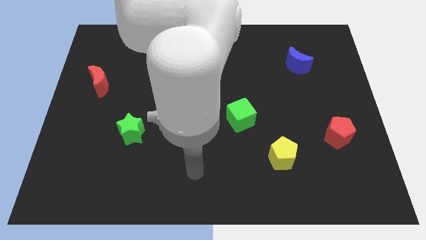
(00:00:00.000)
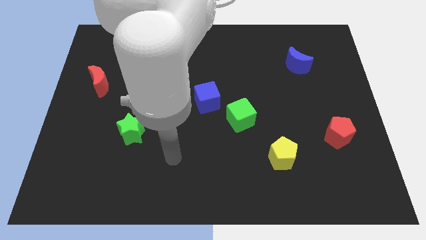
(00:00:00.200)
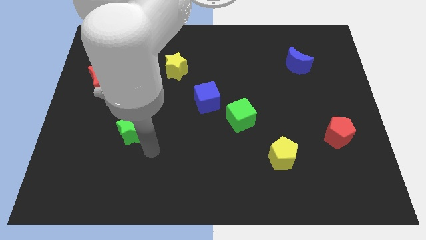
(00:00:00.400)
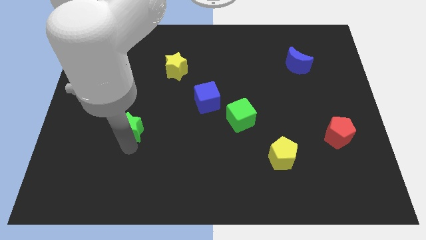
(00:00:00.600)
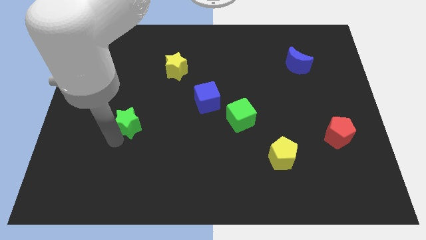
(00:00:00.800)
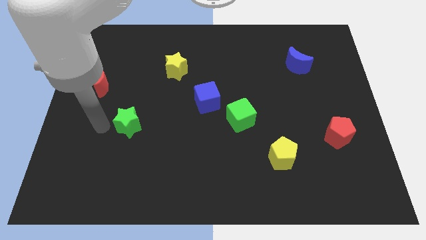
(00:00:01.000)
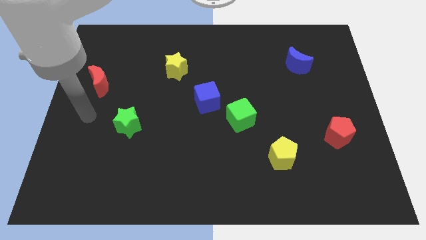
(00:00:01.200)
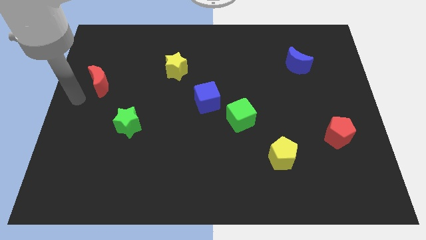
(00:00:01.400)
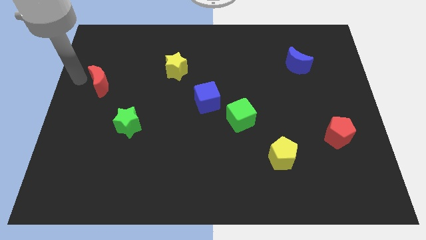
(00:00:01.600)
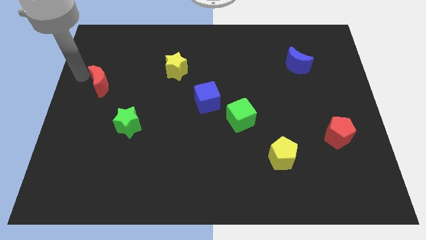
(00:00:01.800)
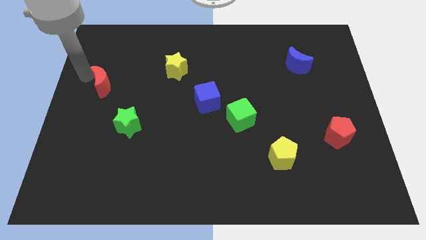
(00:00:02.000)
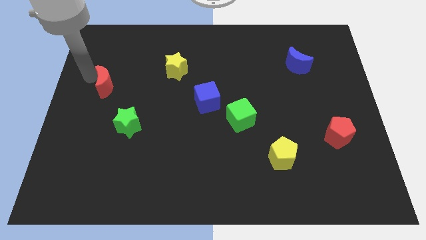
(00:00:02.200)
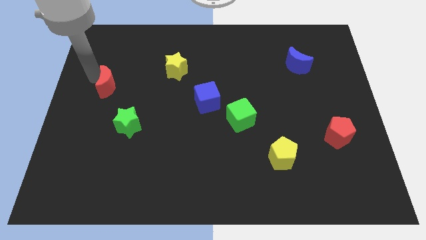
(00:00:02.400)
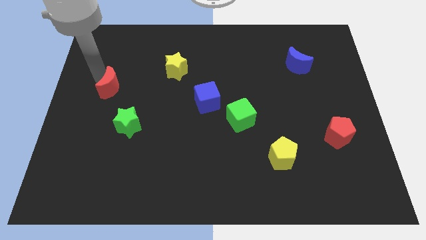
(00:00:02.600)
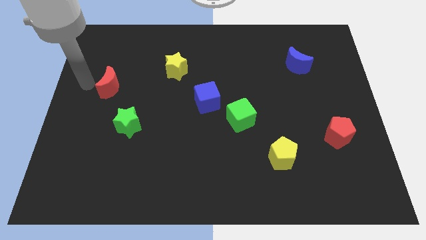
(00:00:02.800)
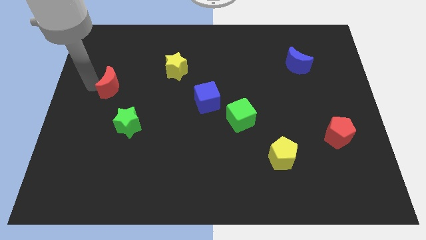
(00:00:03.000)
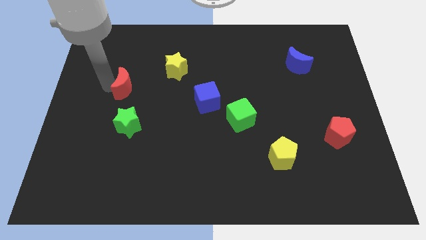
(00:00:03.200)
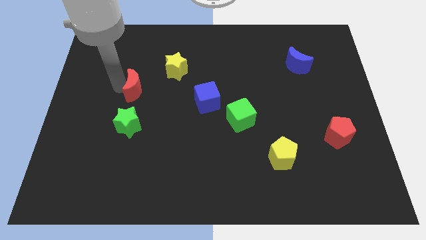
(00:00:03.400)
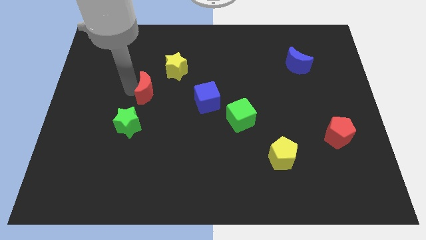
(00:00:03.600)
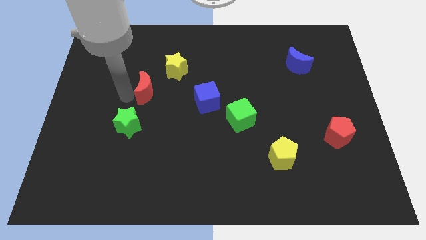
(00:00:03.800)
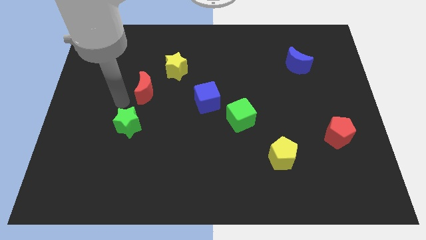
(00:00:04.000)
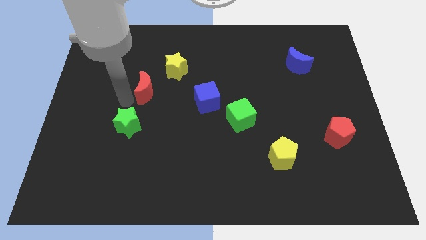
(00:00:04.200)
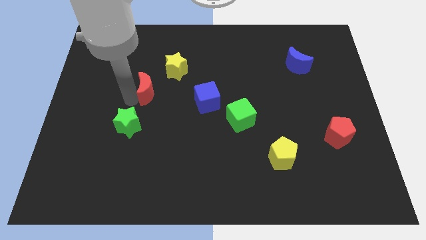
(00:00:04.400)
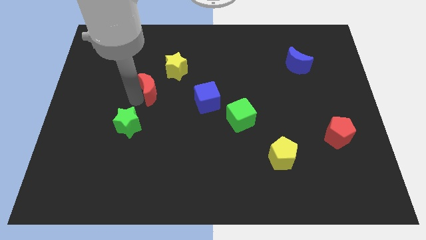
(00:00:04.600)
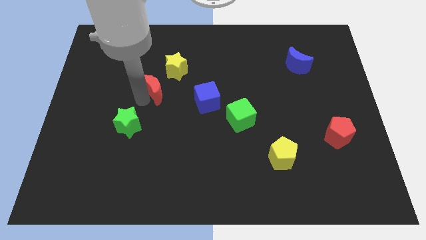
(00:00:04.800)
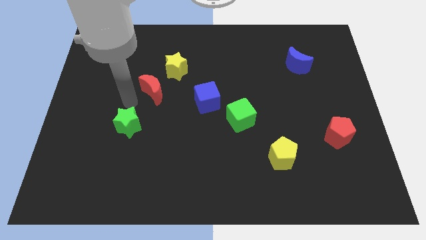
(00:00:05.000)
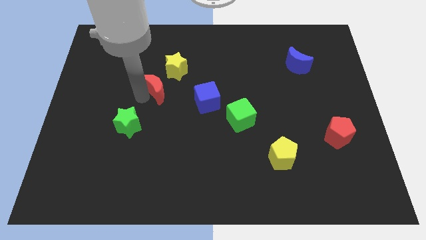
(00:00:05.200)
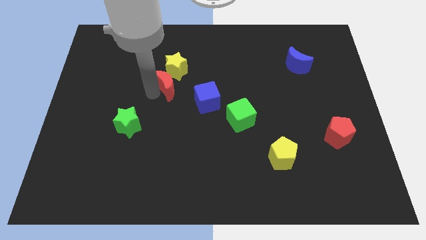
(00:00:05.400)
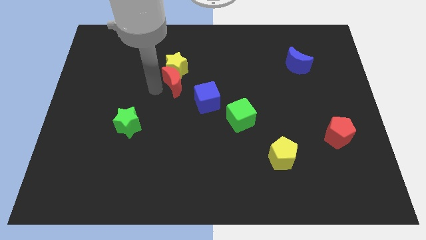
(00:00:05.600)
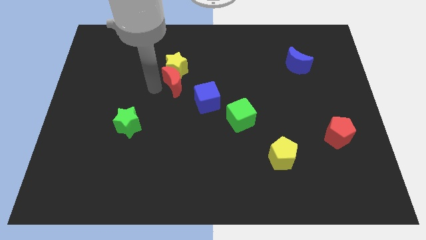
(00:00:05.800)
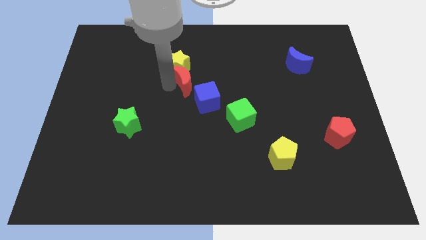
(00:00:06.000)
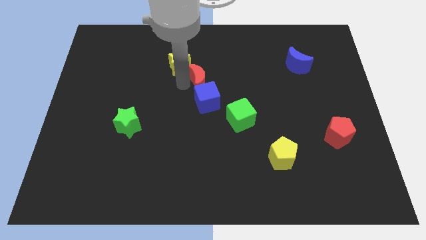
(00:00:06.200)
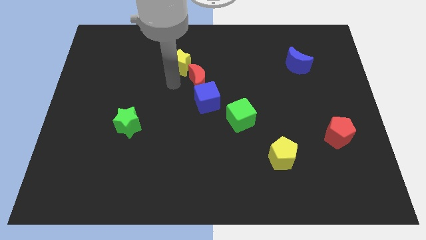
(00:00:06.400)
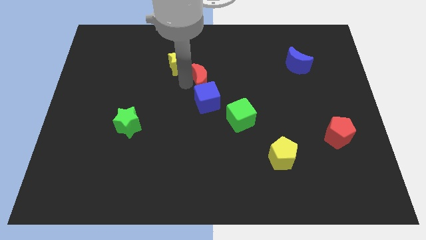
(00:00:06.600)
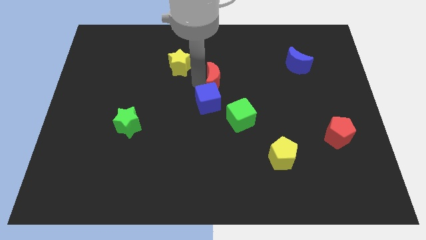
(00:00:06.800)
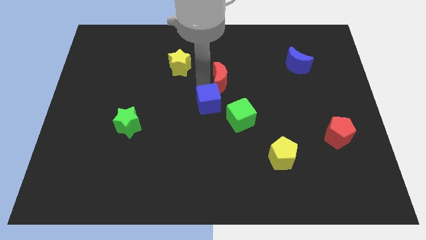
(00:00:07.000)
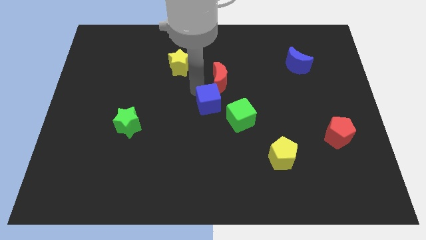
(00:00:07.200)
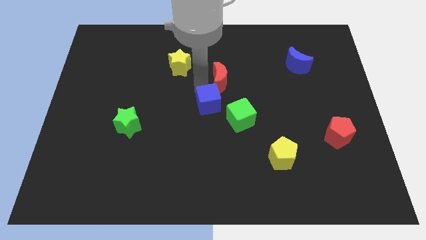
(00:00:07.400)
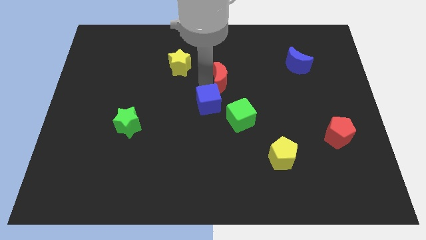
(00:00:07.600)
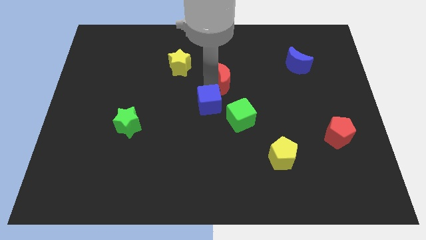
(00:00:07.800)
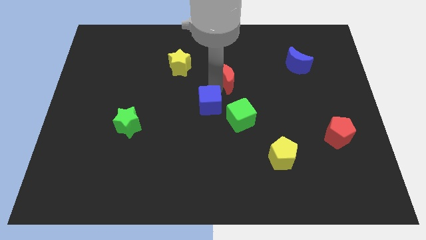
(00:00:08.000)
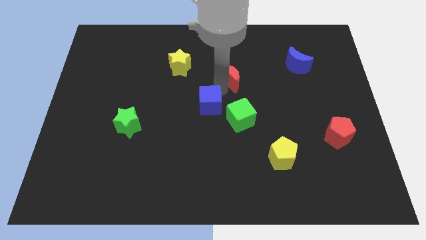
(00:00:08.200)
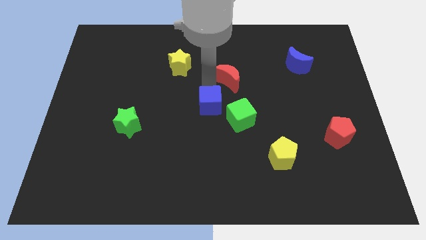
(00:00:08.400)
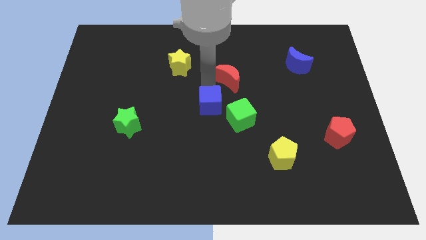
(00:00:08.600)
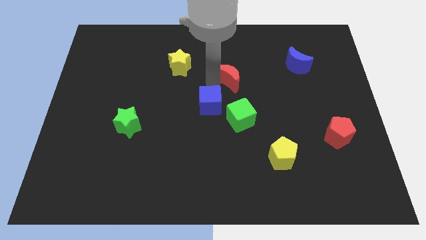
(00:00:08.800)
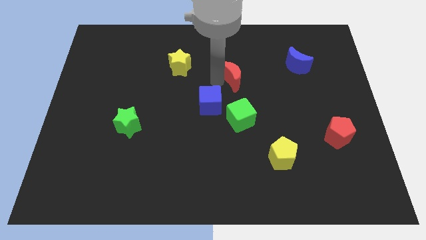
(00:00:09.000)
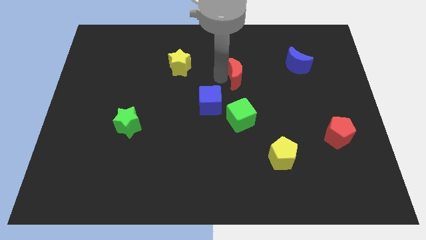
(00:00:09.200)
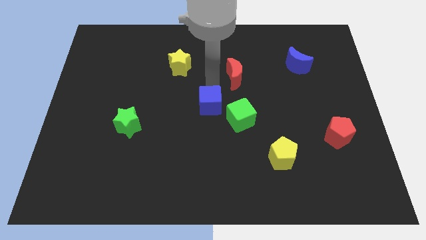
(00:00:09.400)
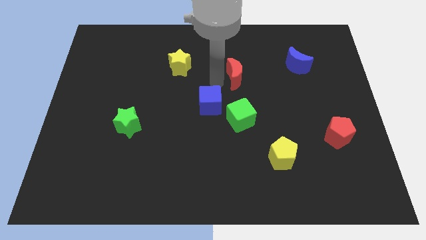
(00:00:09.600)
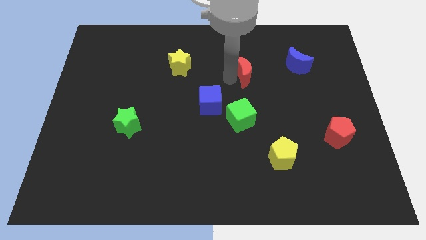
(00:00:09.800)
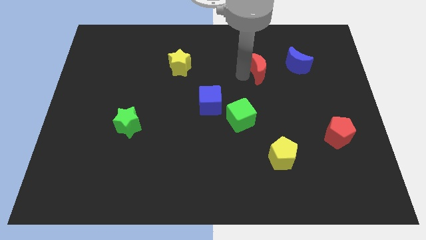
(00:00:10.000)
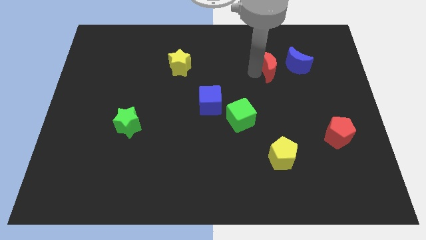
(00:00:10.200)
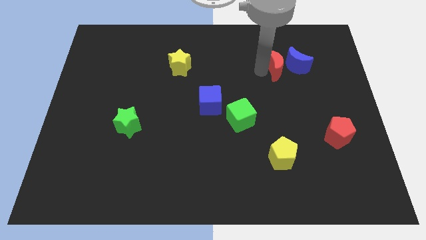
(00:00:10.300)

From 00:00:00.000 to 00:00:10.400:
put the red moon close to the blue moon

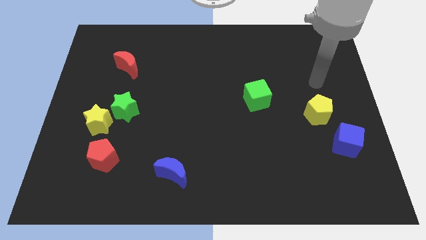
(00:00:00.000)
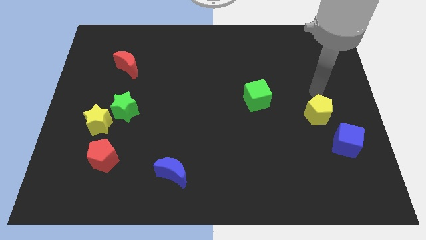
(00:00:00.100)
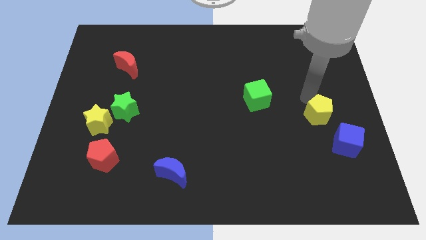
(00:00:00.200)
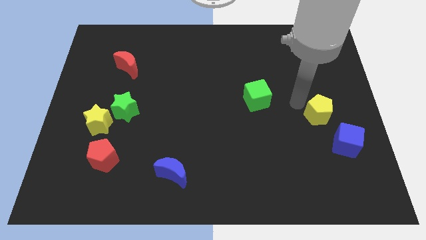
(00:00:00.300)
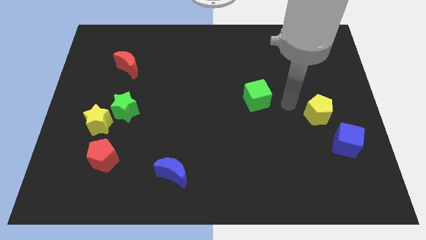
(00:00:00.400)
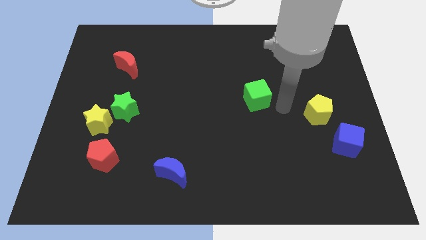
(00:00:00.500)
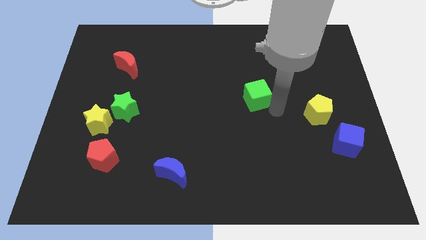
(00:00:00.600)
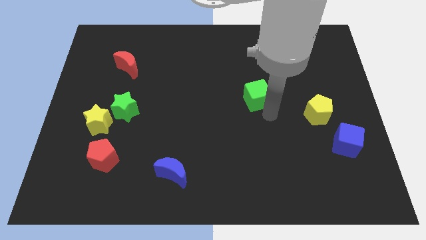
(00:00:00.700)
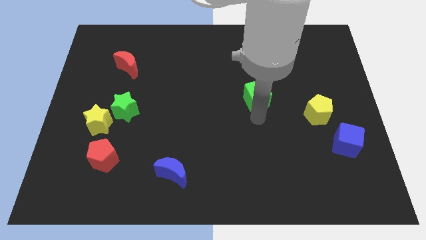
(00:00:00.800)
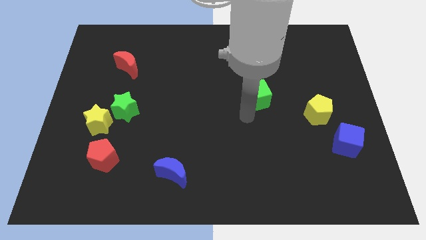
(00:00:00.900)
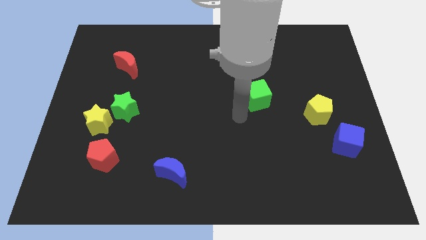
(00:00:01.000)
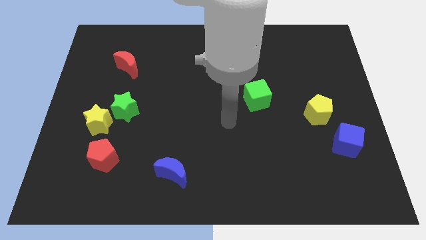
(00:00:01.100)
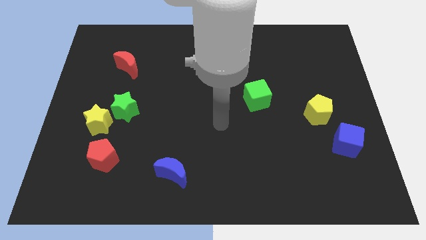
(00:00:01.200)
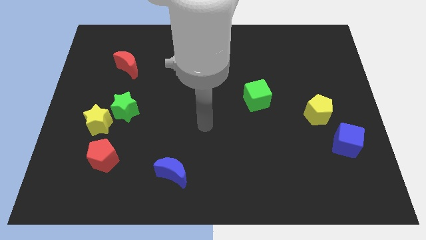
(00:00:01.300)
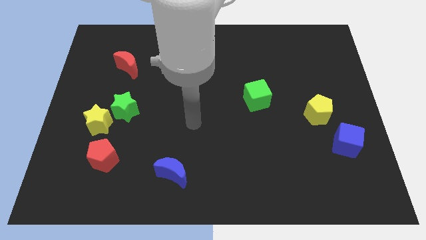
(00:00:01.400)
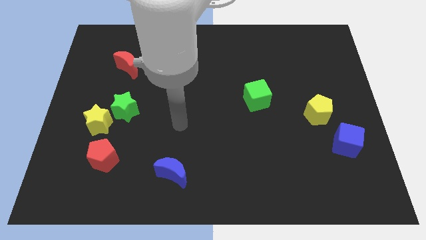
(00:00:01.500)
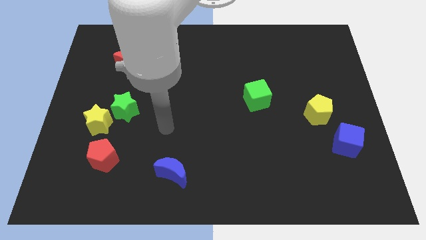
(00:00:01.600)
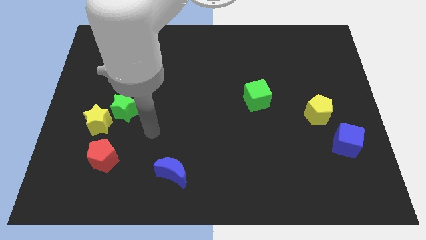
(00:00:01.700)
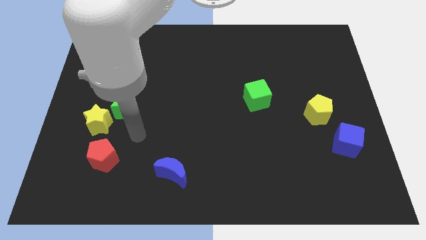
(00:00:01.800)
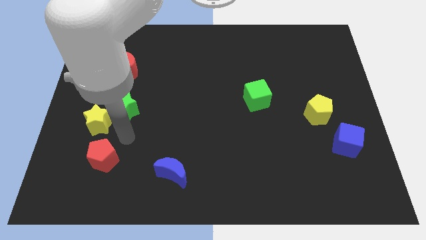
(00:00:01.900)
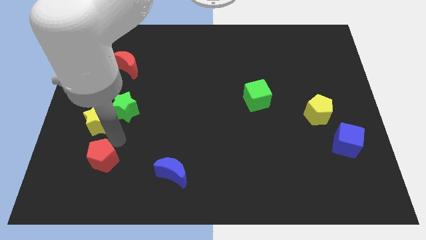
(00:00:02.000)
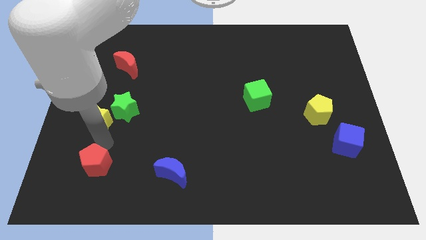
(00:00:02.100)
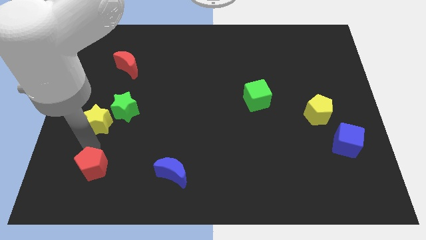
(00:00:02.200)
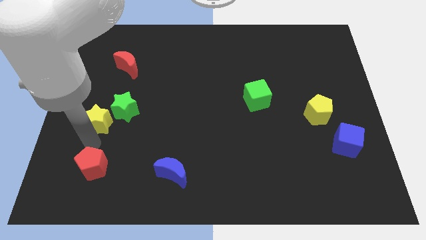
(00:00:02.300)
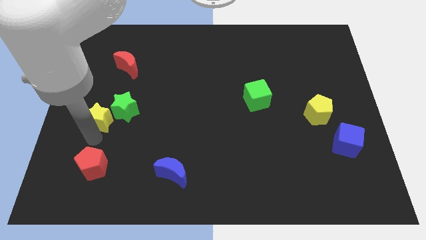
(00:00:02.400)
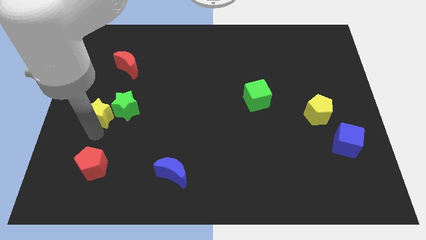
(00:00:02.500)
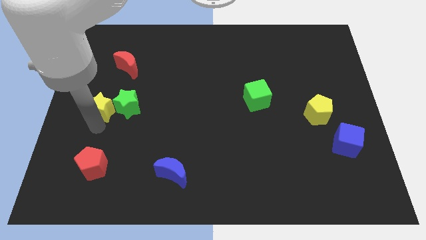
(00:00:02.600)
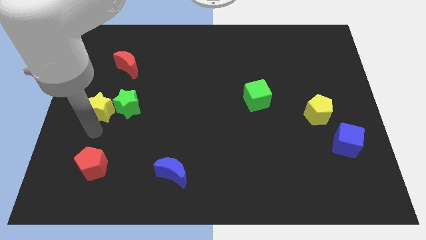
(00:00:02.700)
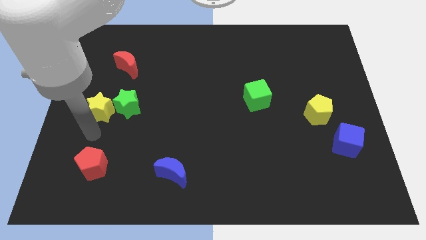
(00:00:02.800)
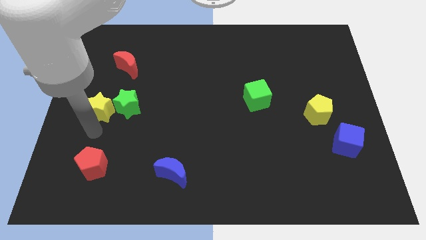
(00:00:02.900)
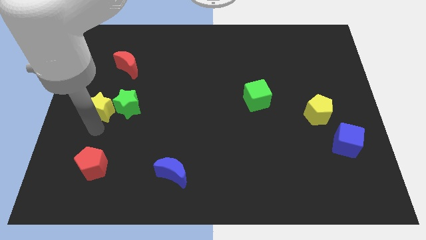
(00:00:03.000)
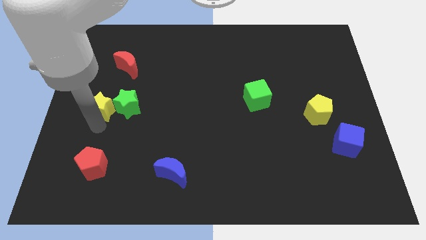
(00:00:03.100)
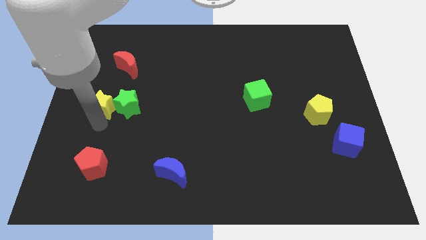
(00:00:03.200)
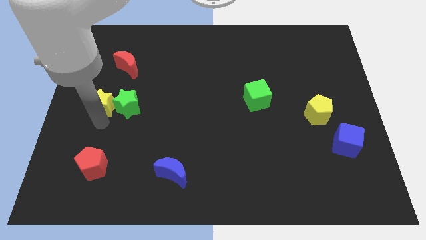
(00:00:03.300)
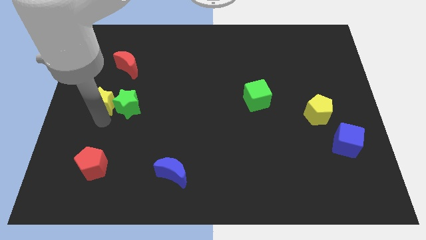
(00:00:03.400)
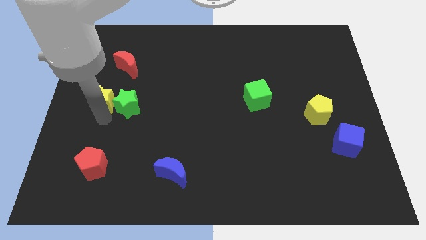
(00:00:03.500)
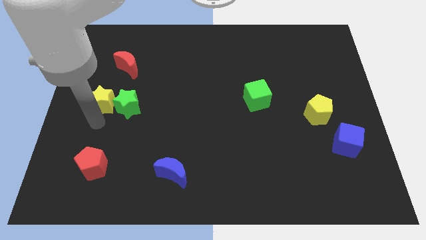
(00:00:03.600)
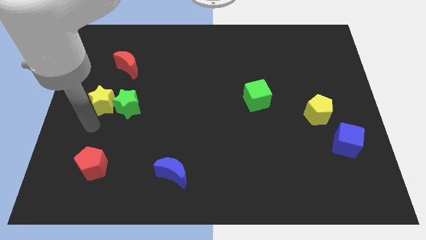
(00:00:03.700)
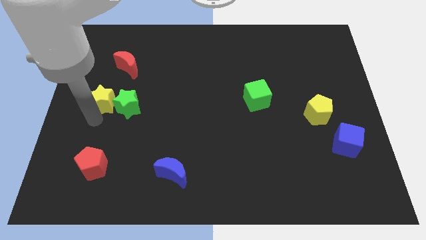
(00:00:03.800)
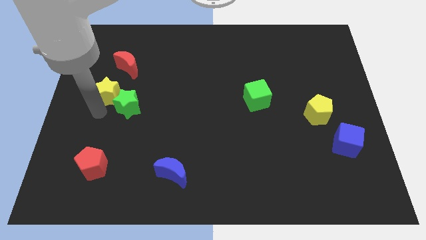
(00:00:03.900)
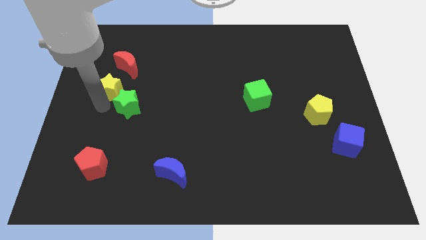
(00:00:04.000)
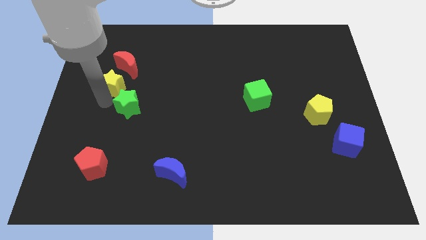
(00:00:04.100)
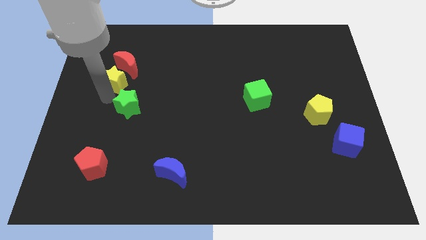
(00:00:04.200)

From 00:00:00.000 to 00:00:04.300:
push the yellow star towards the red moon
